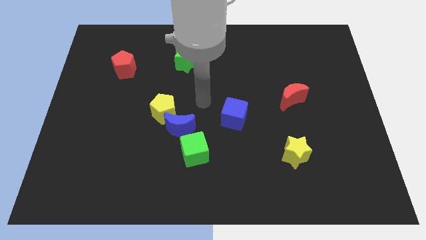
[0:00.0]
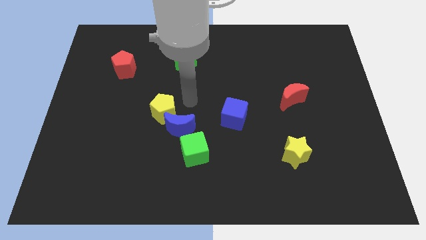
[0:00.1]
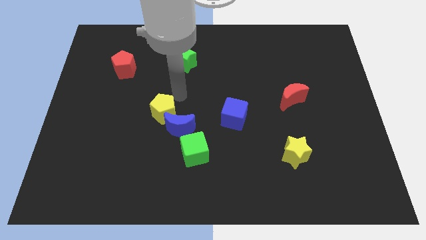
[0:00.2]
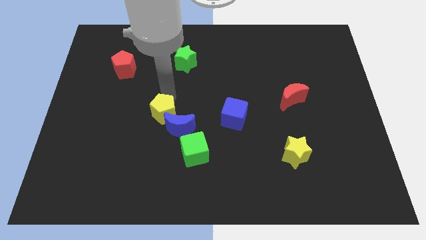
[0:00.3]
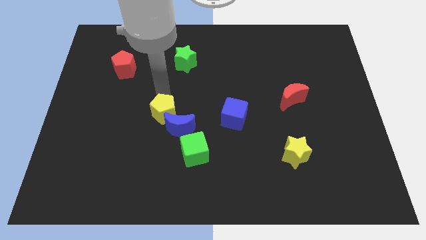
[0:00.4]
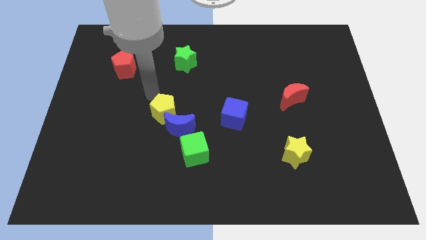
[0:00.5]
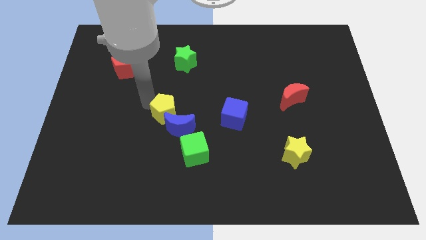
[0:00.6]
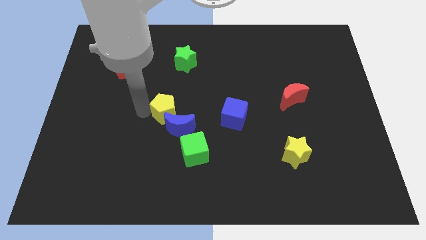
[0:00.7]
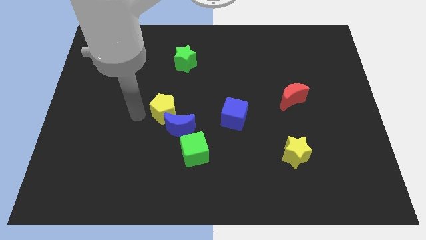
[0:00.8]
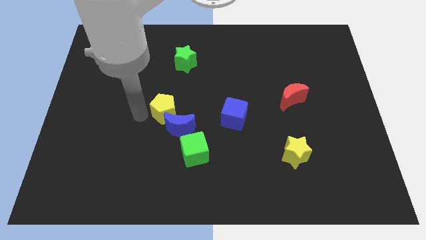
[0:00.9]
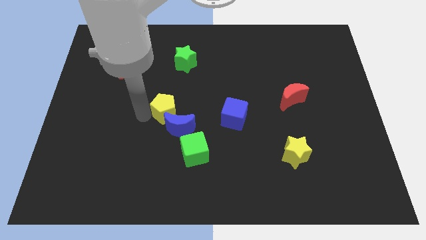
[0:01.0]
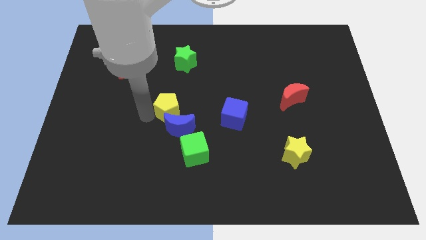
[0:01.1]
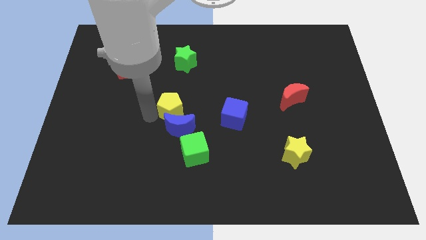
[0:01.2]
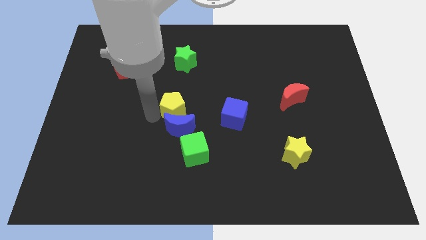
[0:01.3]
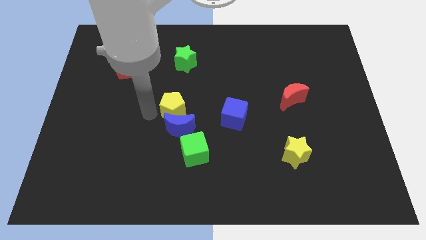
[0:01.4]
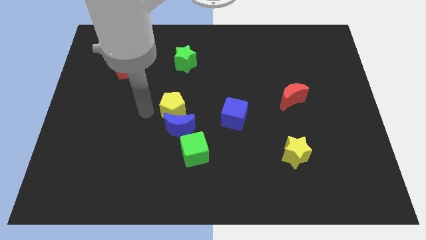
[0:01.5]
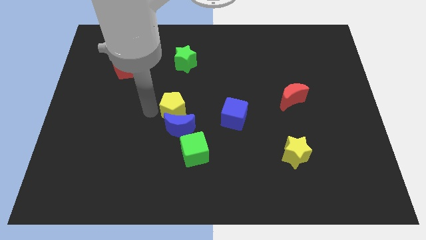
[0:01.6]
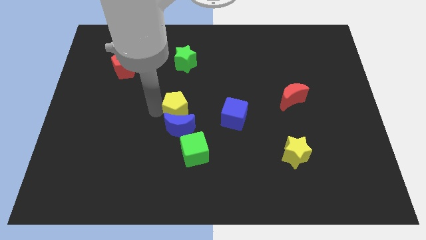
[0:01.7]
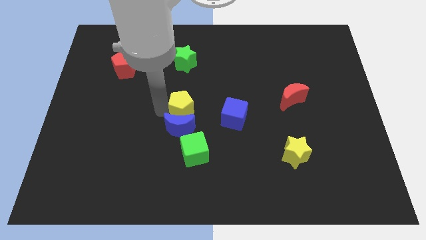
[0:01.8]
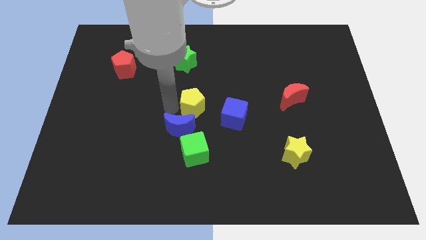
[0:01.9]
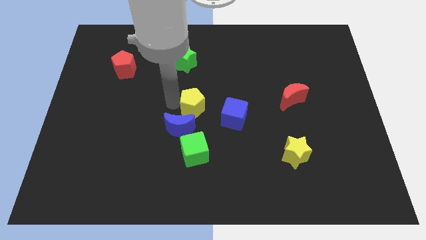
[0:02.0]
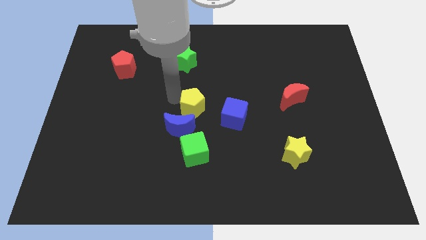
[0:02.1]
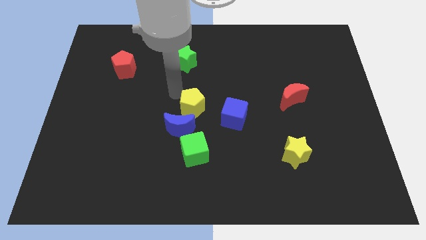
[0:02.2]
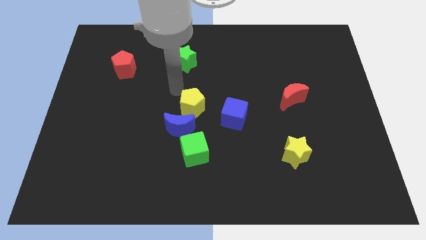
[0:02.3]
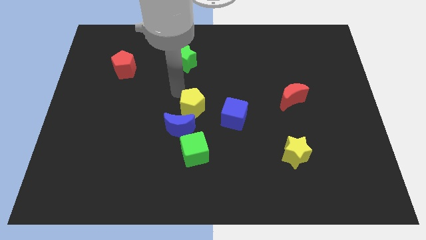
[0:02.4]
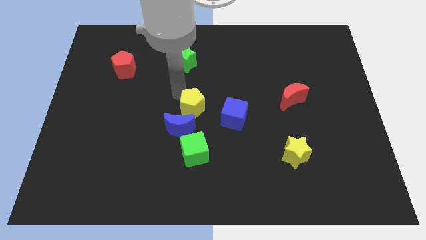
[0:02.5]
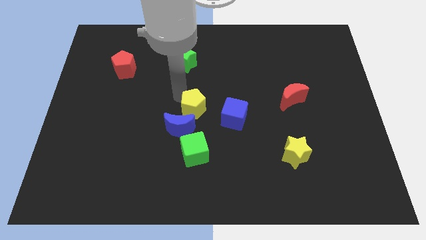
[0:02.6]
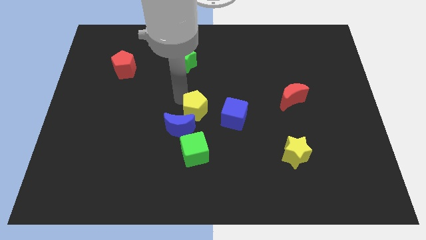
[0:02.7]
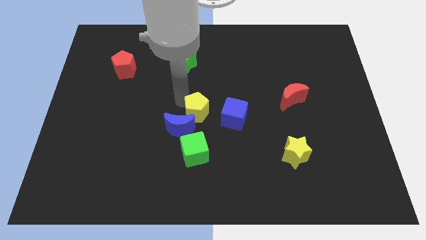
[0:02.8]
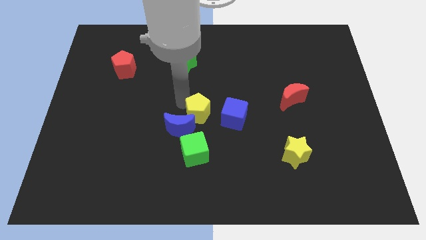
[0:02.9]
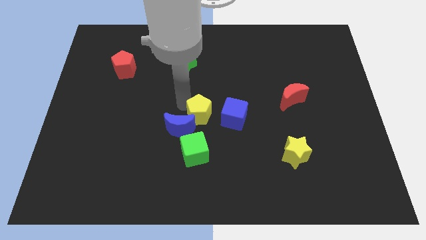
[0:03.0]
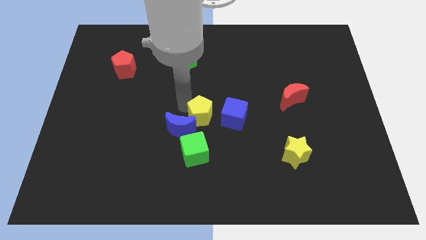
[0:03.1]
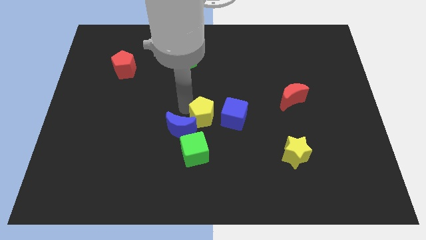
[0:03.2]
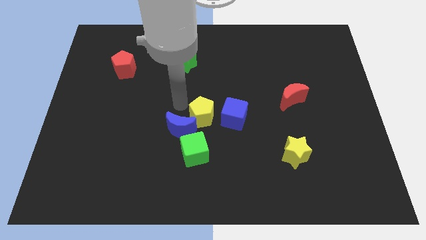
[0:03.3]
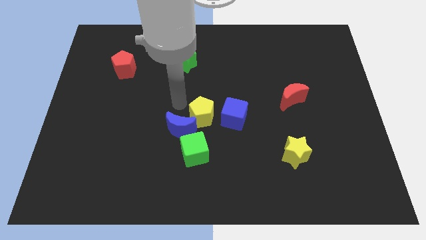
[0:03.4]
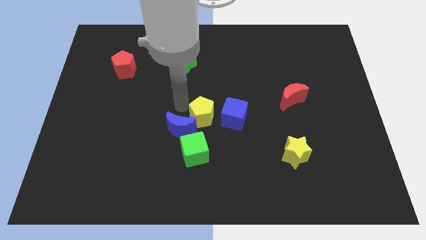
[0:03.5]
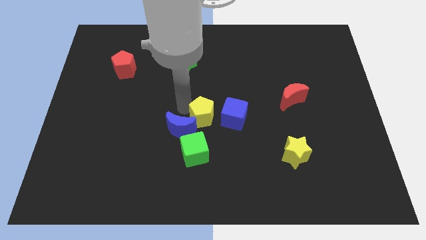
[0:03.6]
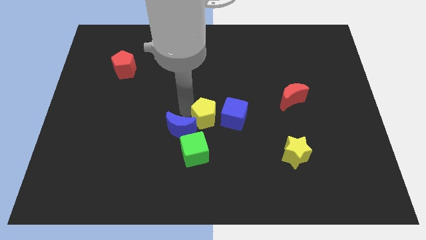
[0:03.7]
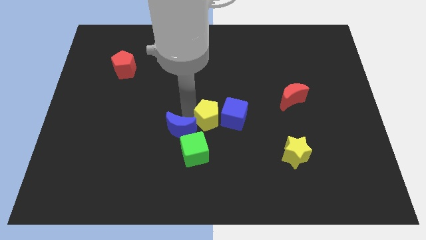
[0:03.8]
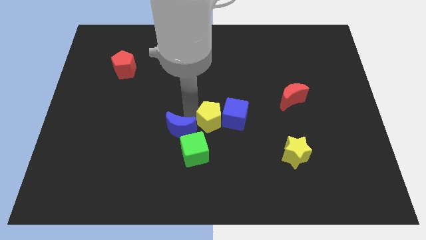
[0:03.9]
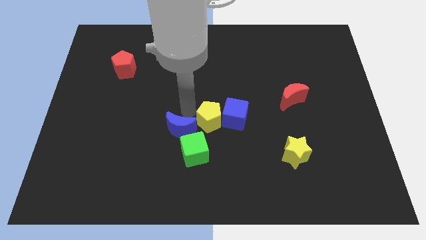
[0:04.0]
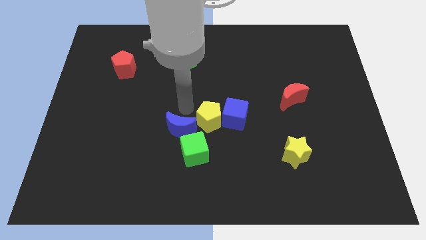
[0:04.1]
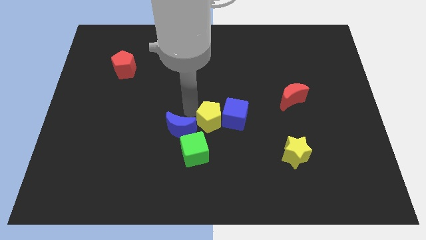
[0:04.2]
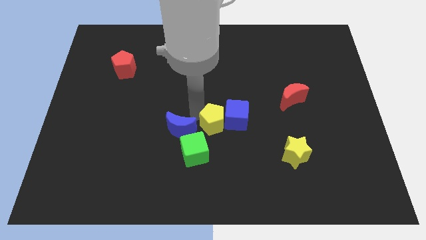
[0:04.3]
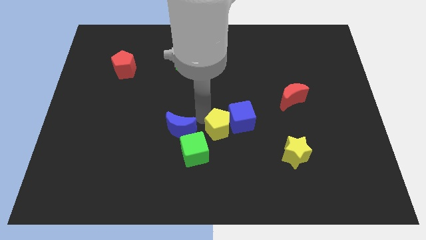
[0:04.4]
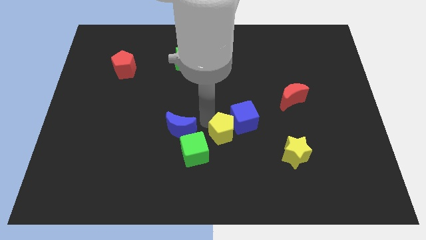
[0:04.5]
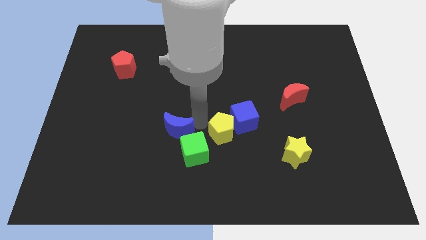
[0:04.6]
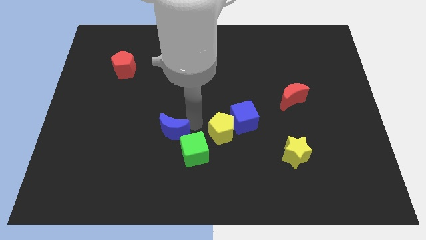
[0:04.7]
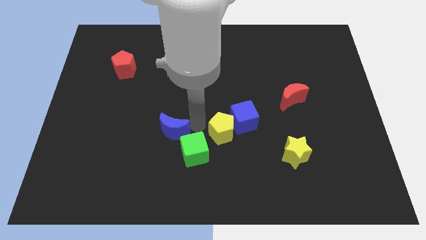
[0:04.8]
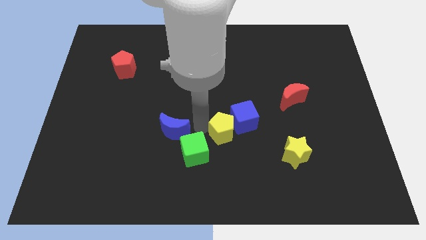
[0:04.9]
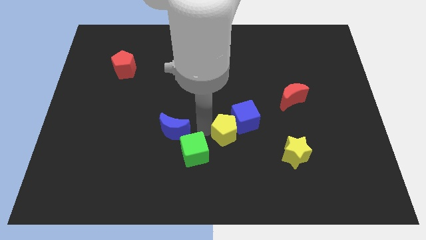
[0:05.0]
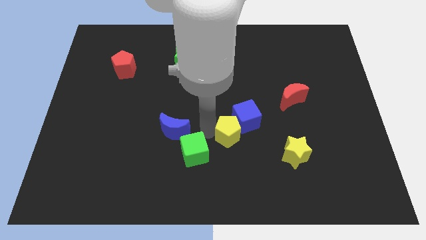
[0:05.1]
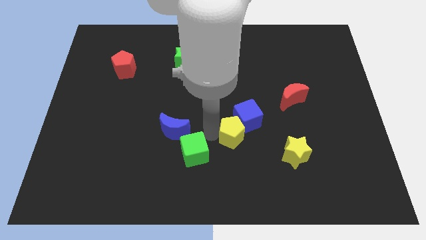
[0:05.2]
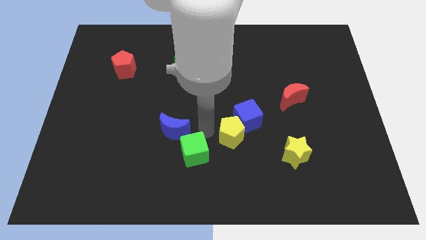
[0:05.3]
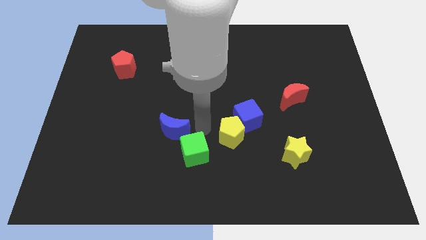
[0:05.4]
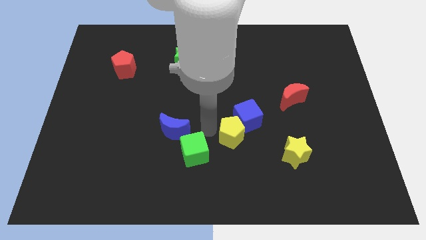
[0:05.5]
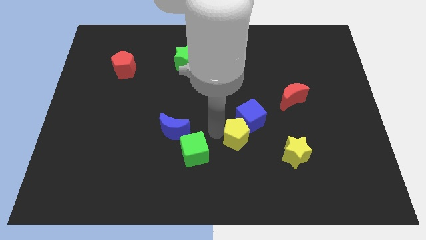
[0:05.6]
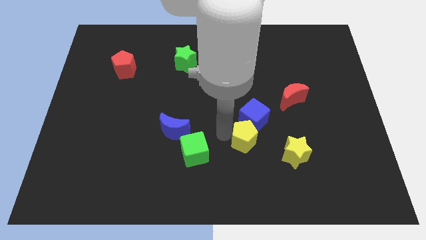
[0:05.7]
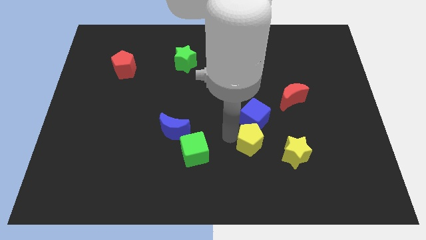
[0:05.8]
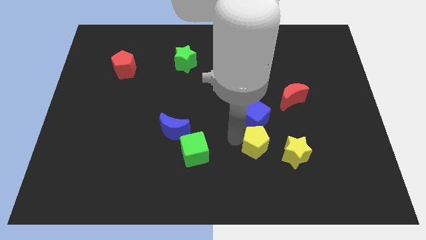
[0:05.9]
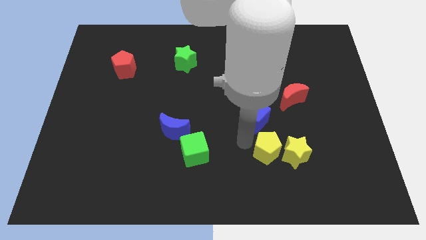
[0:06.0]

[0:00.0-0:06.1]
push the yellow pentagon next to the yellow star
